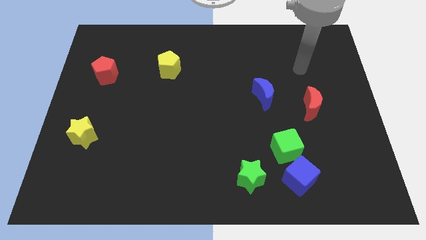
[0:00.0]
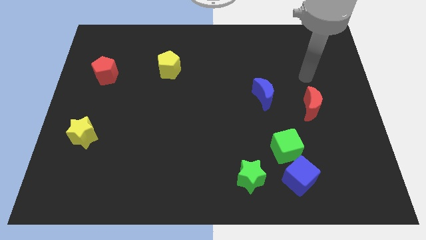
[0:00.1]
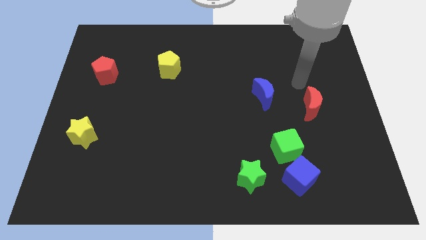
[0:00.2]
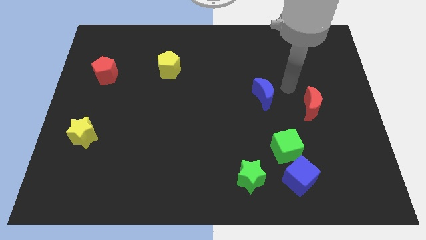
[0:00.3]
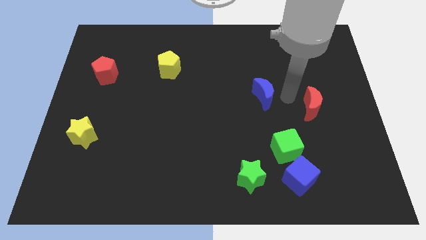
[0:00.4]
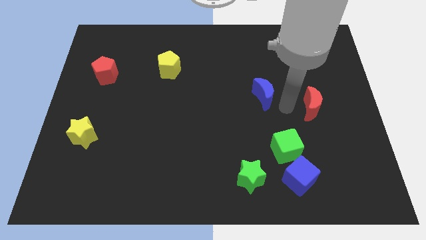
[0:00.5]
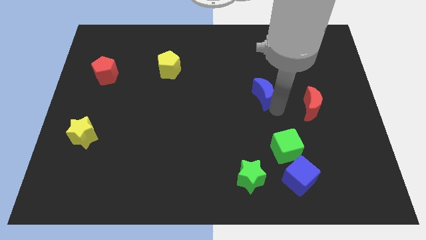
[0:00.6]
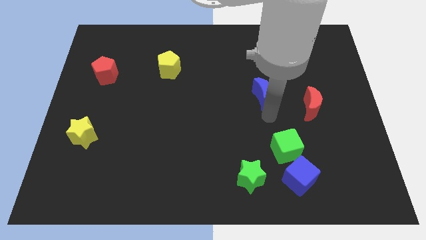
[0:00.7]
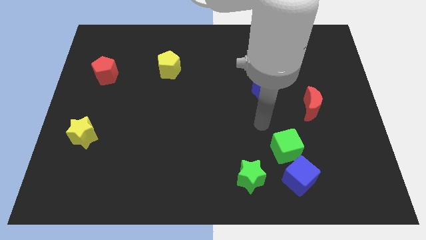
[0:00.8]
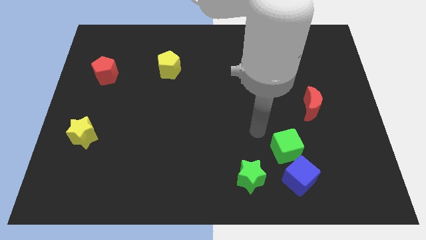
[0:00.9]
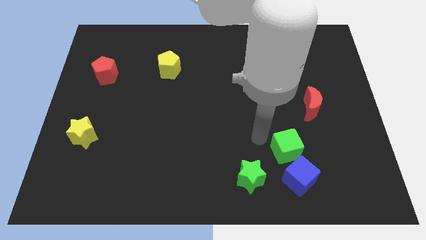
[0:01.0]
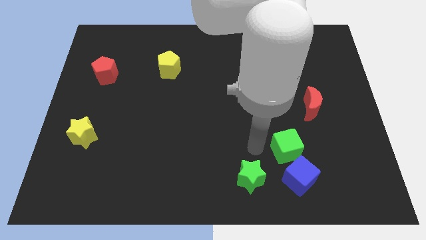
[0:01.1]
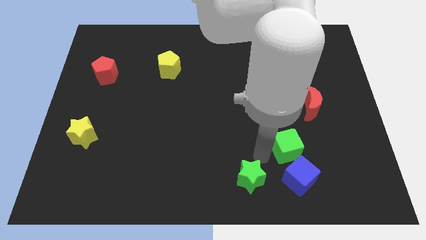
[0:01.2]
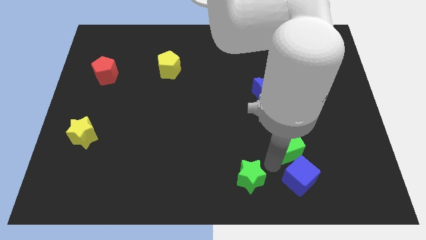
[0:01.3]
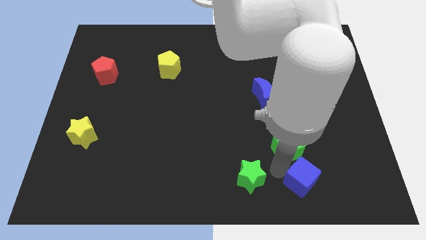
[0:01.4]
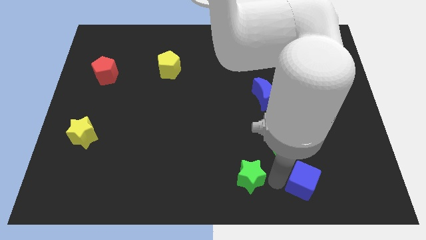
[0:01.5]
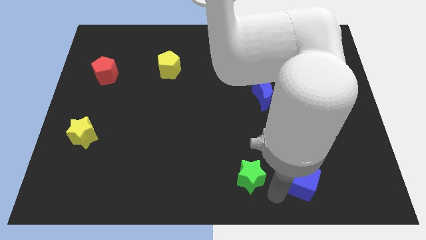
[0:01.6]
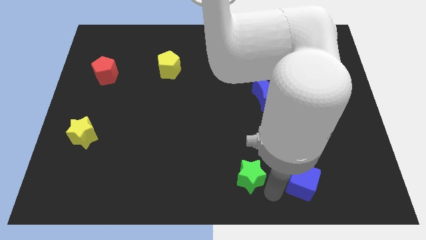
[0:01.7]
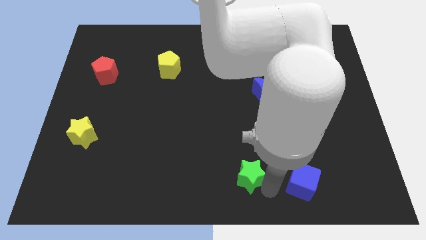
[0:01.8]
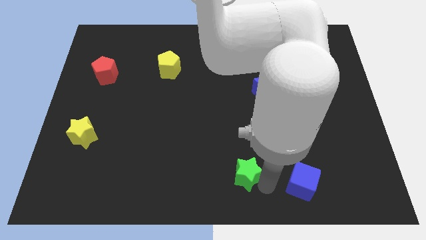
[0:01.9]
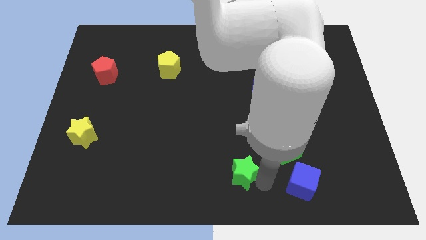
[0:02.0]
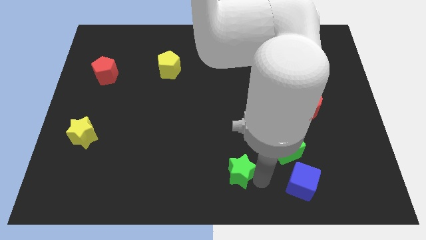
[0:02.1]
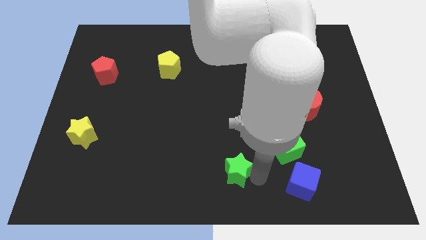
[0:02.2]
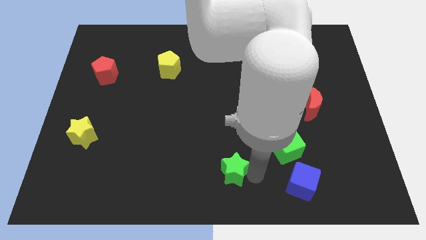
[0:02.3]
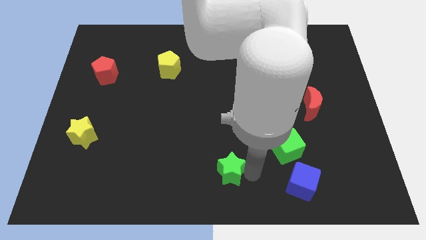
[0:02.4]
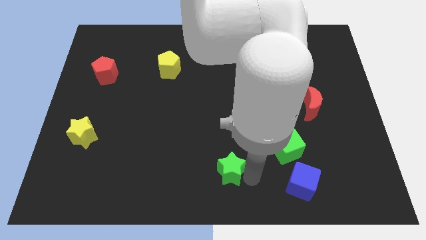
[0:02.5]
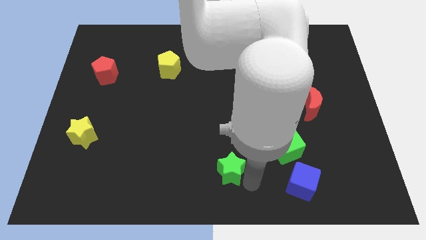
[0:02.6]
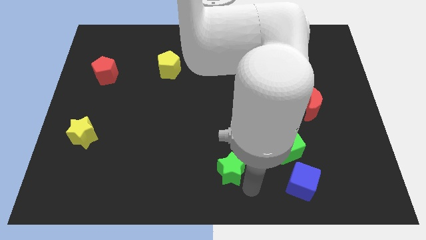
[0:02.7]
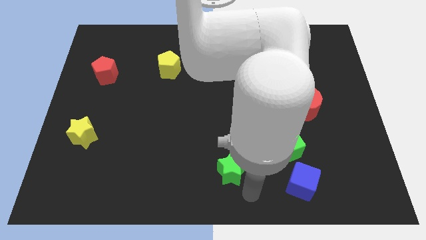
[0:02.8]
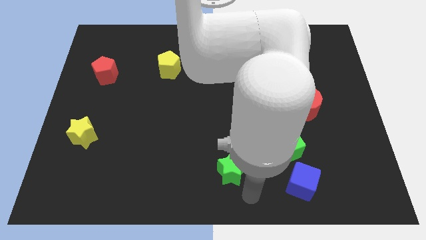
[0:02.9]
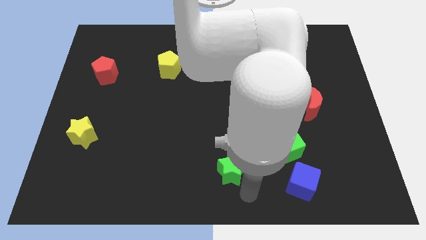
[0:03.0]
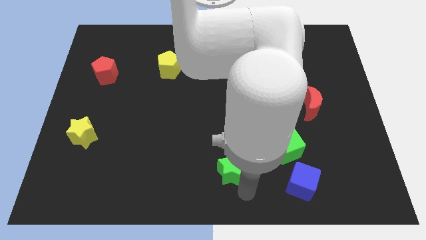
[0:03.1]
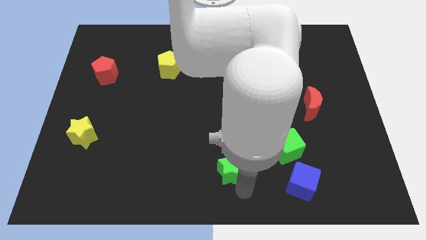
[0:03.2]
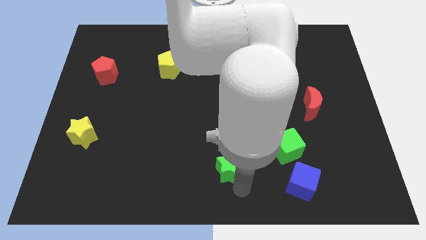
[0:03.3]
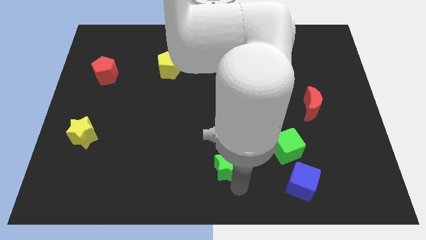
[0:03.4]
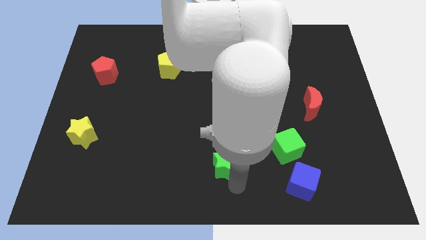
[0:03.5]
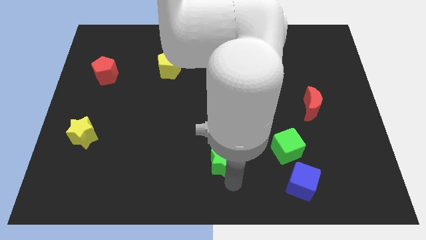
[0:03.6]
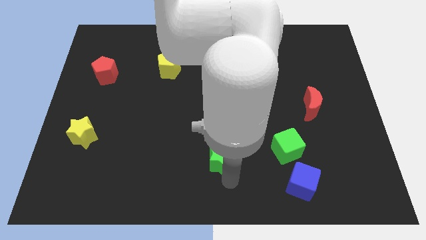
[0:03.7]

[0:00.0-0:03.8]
slightly push the green star diagonally up and left

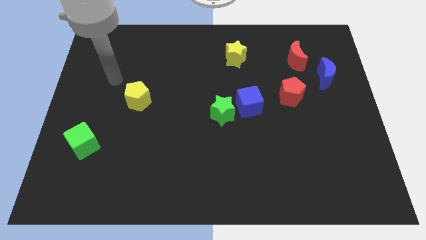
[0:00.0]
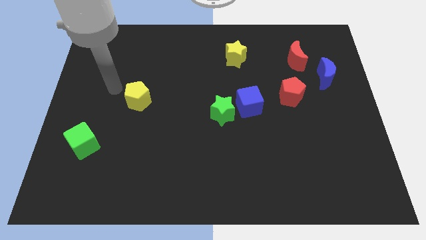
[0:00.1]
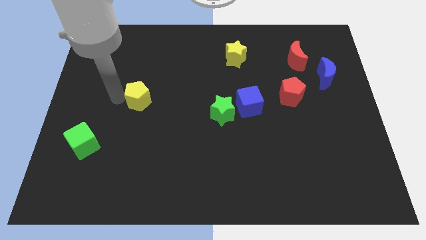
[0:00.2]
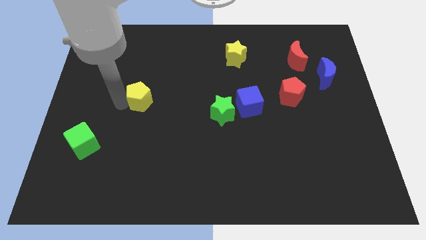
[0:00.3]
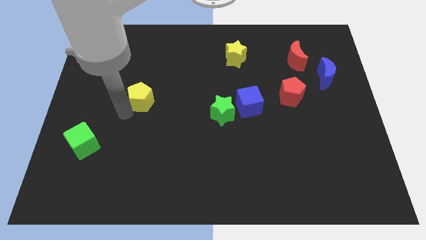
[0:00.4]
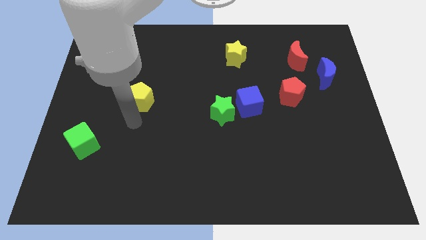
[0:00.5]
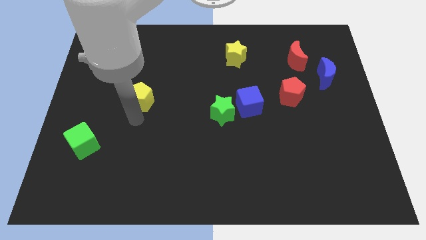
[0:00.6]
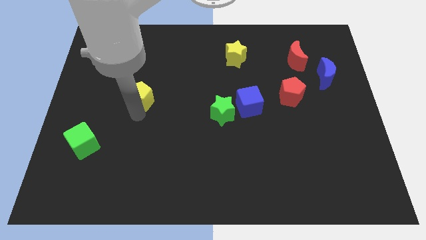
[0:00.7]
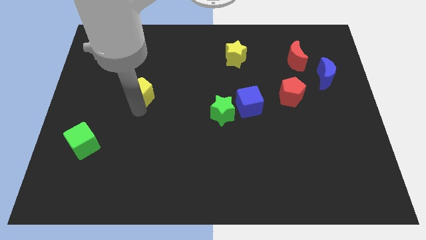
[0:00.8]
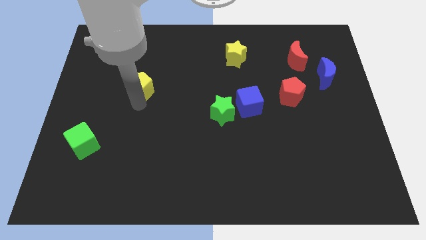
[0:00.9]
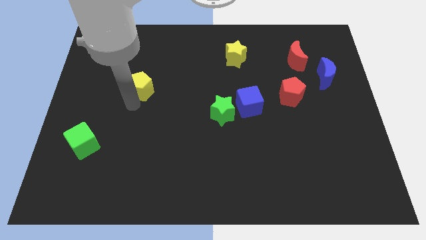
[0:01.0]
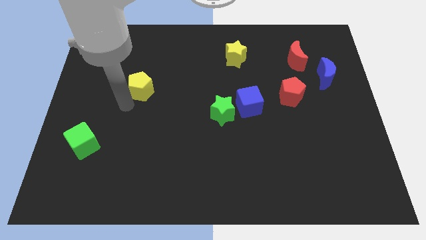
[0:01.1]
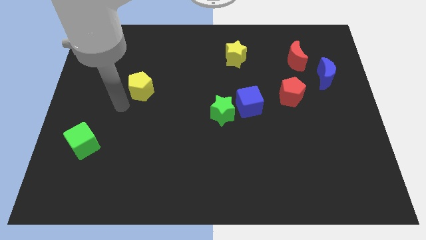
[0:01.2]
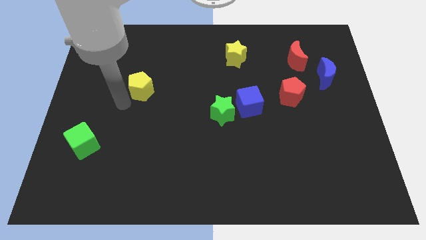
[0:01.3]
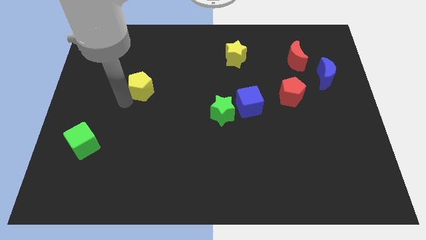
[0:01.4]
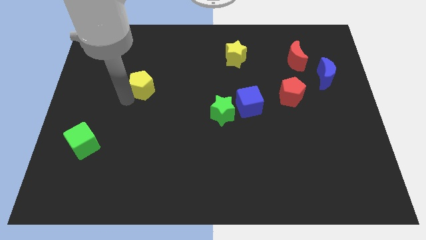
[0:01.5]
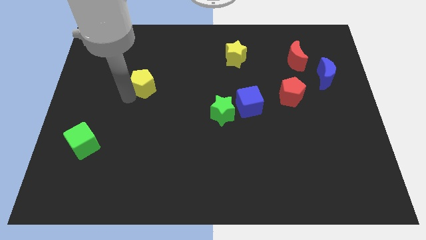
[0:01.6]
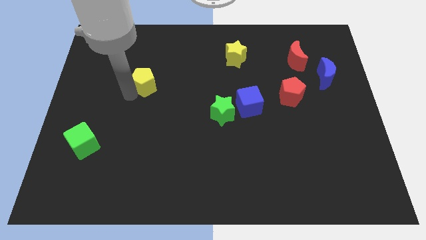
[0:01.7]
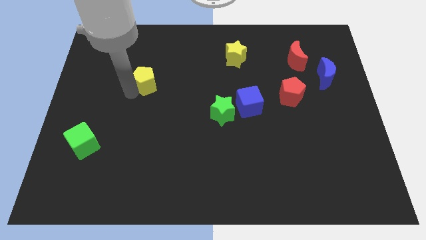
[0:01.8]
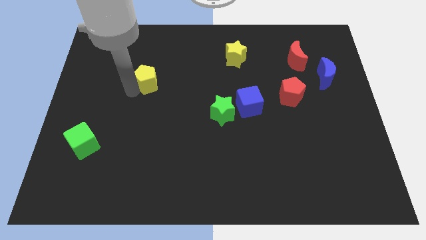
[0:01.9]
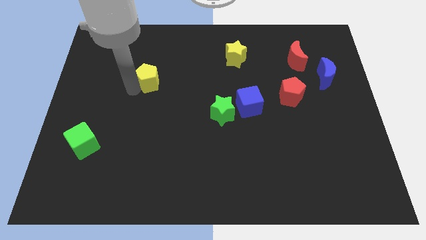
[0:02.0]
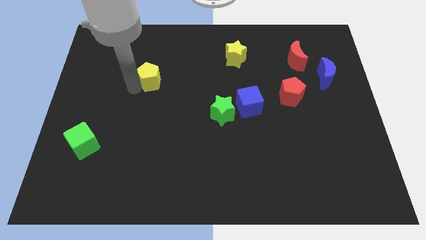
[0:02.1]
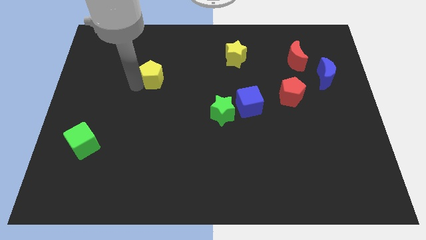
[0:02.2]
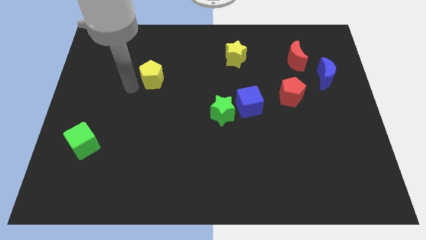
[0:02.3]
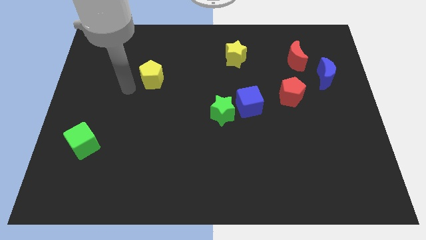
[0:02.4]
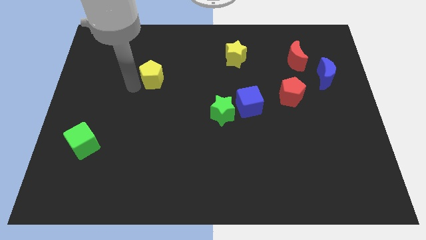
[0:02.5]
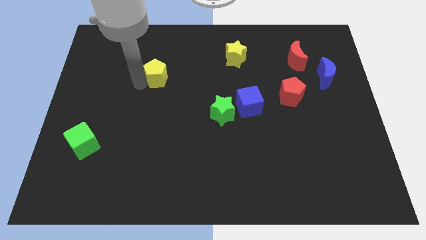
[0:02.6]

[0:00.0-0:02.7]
push the yellow pentagon a bit up and right diagonally

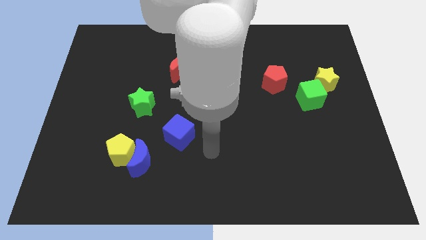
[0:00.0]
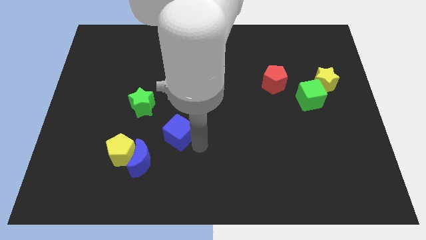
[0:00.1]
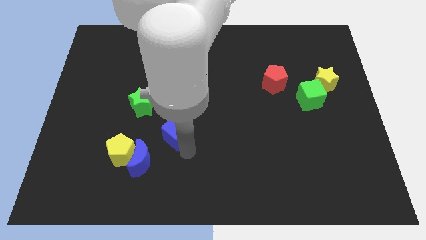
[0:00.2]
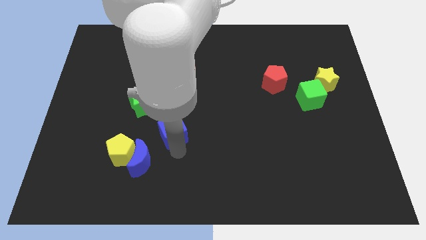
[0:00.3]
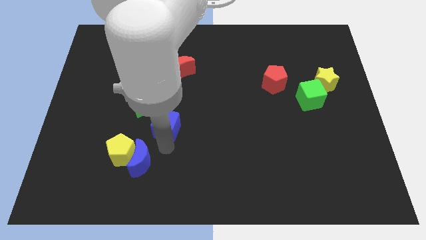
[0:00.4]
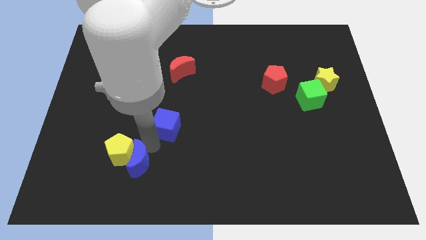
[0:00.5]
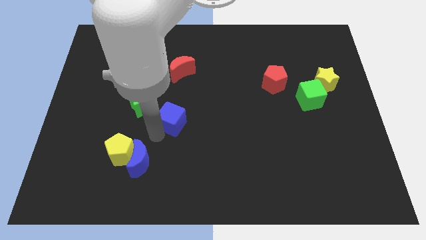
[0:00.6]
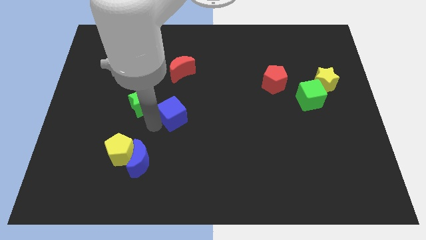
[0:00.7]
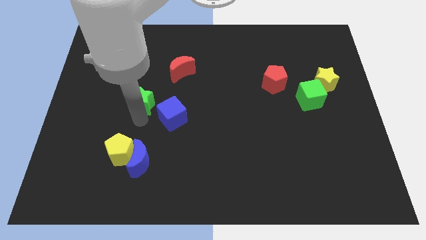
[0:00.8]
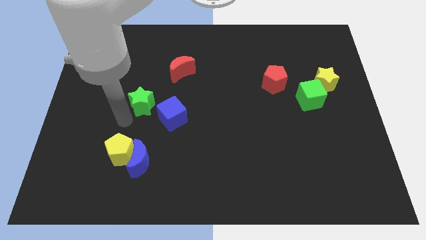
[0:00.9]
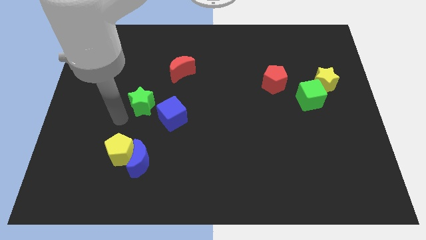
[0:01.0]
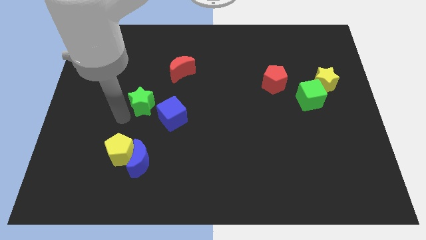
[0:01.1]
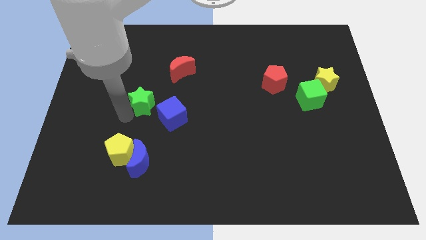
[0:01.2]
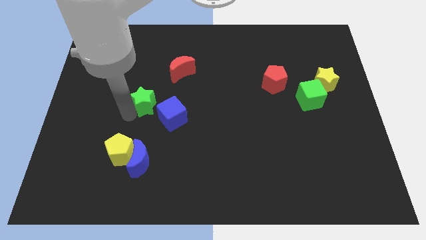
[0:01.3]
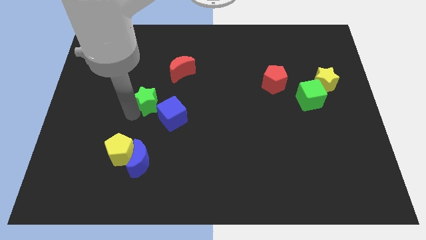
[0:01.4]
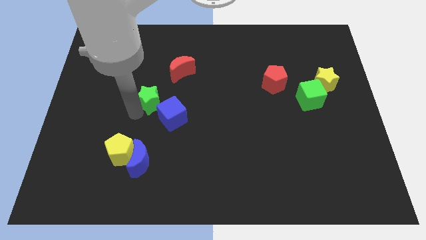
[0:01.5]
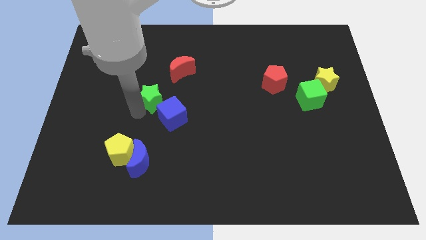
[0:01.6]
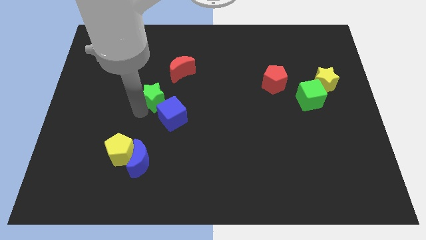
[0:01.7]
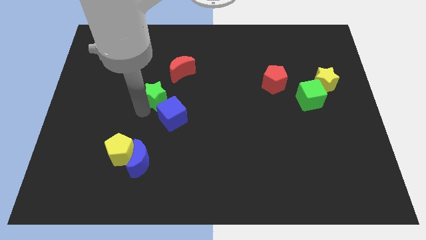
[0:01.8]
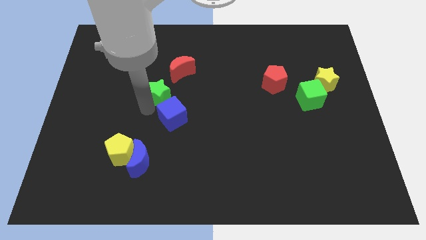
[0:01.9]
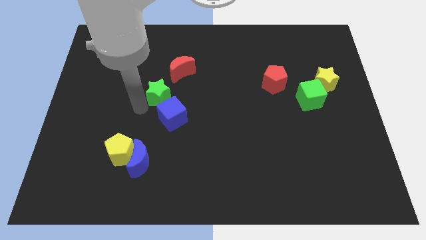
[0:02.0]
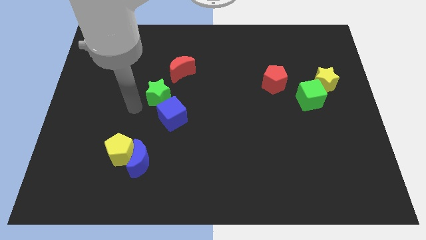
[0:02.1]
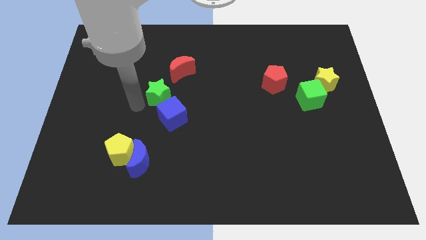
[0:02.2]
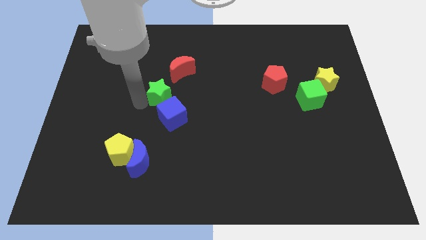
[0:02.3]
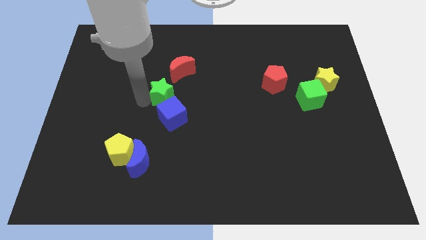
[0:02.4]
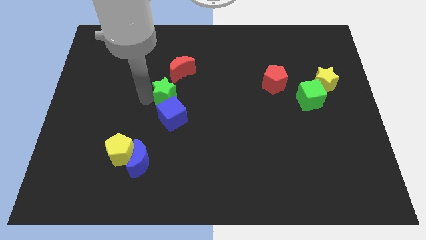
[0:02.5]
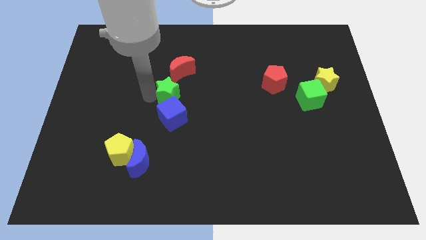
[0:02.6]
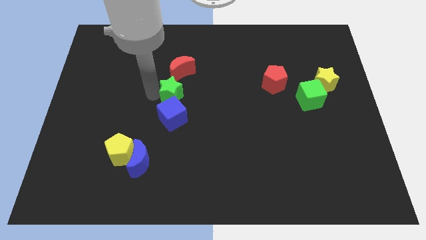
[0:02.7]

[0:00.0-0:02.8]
slightly push the green star diagonally up and to the right
